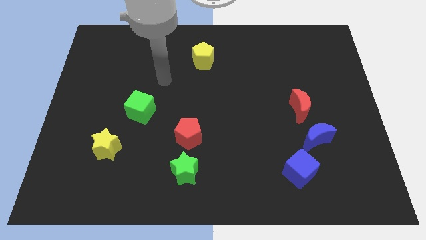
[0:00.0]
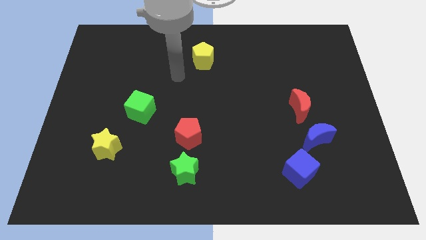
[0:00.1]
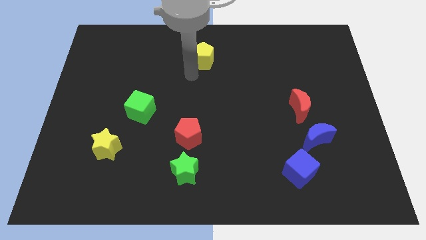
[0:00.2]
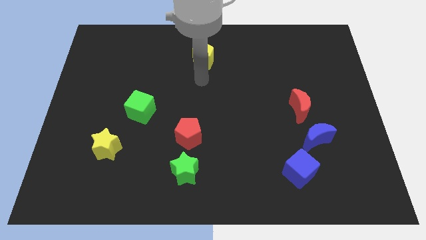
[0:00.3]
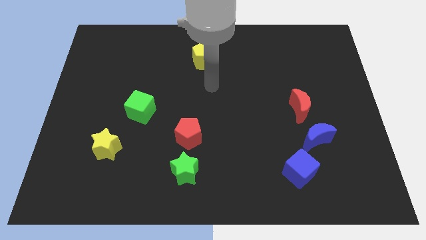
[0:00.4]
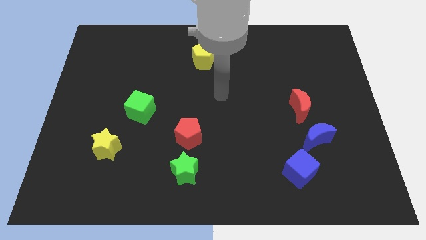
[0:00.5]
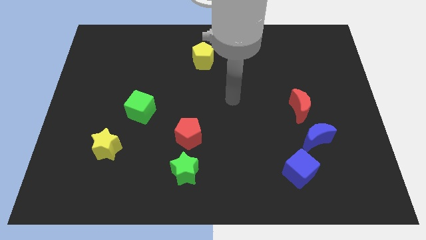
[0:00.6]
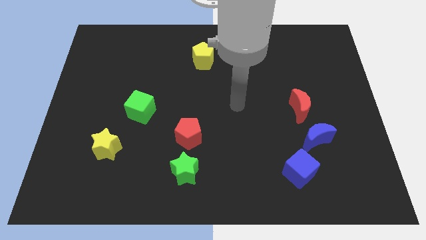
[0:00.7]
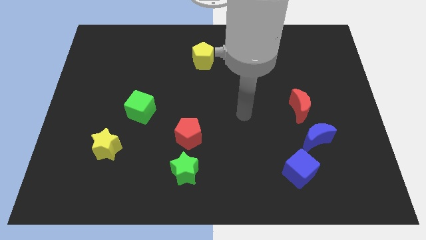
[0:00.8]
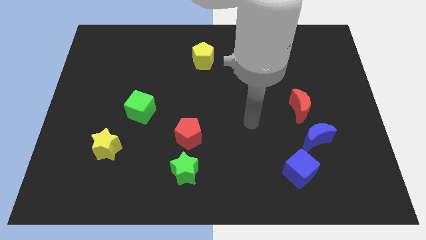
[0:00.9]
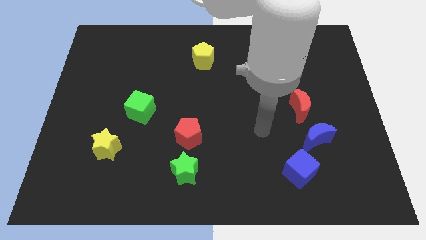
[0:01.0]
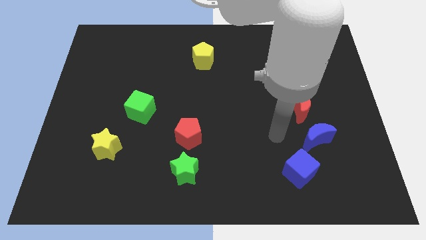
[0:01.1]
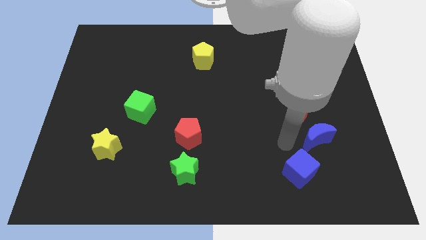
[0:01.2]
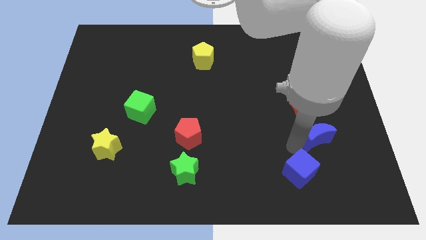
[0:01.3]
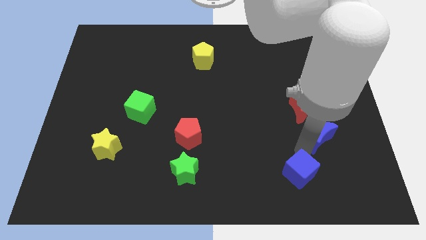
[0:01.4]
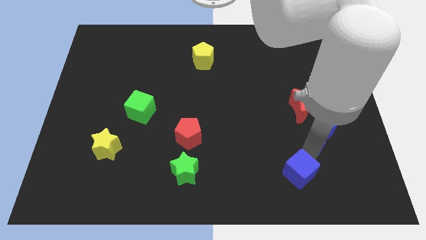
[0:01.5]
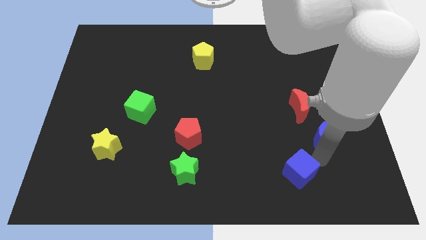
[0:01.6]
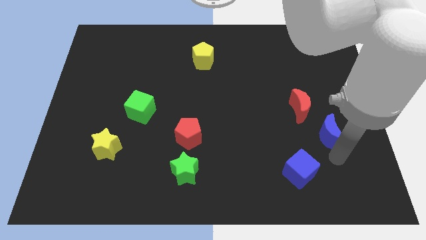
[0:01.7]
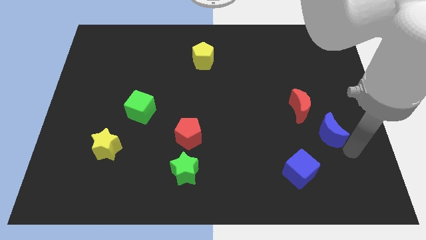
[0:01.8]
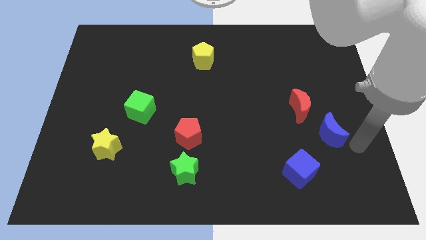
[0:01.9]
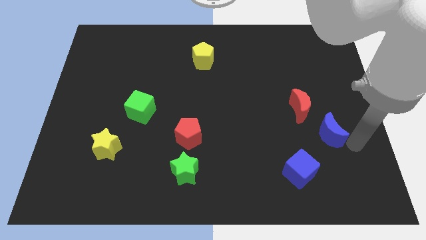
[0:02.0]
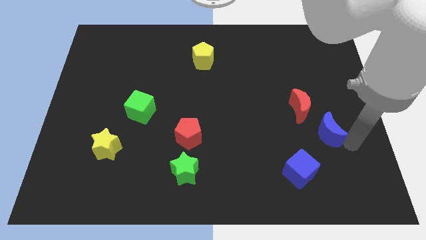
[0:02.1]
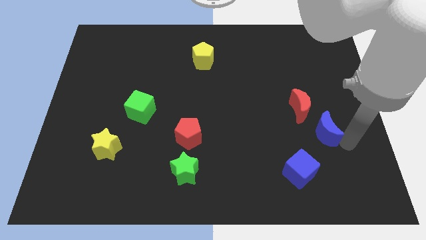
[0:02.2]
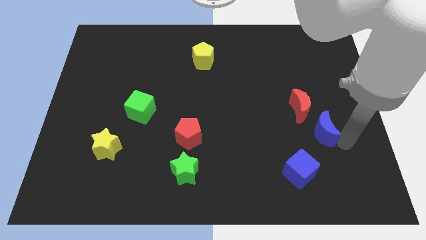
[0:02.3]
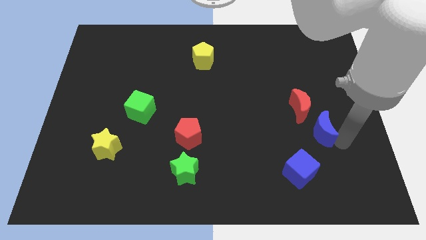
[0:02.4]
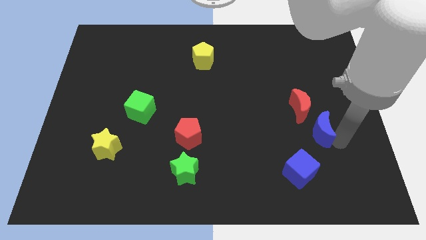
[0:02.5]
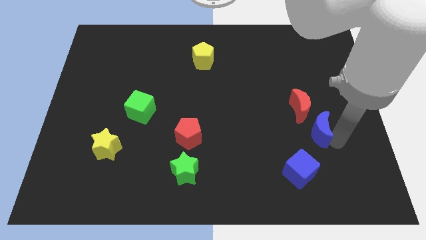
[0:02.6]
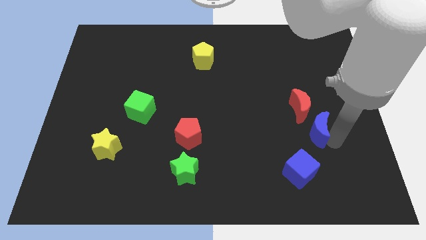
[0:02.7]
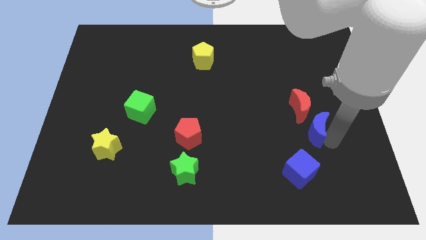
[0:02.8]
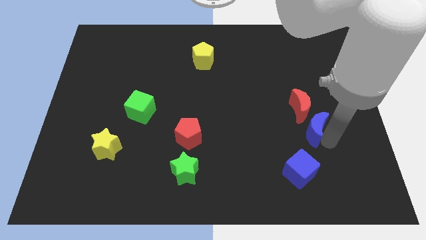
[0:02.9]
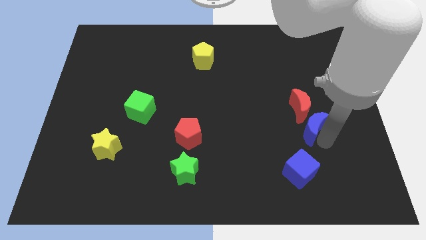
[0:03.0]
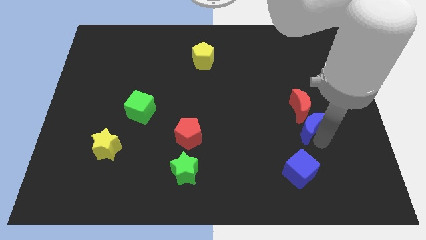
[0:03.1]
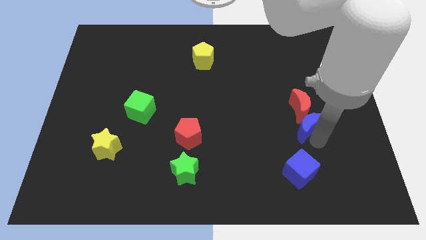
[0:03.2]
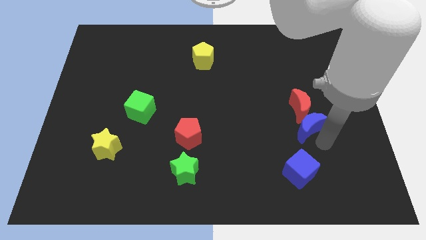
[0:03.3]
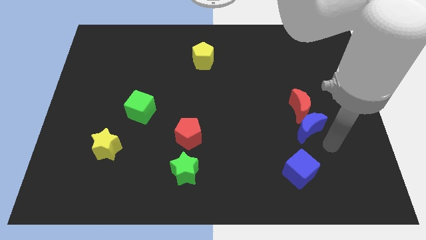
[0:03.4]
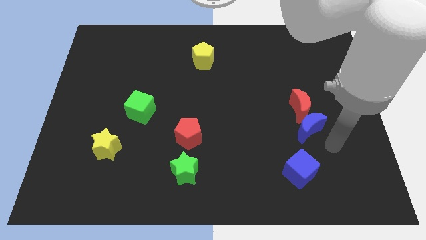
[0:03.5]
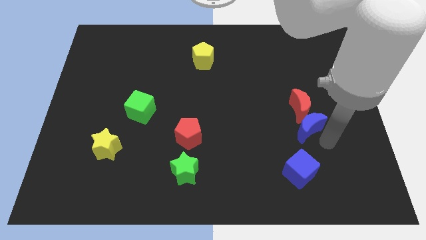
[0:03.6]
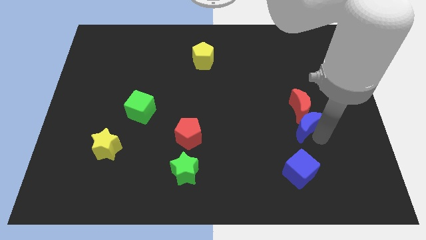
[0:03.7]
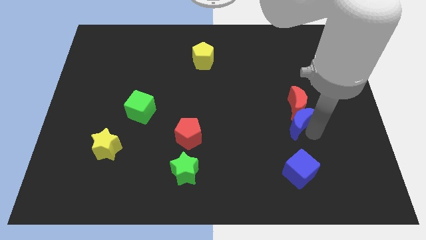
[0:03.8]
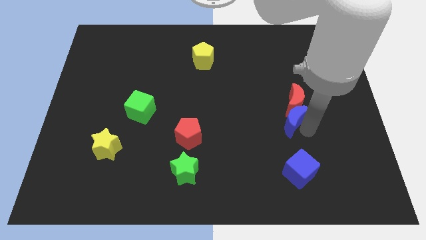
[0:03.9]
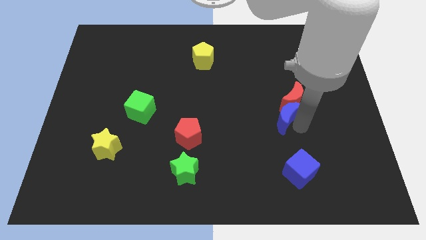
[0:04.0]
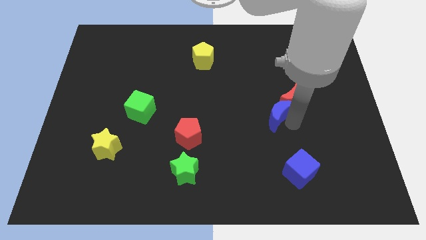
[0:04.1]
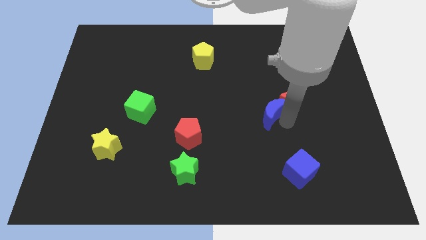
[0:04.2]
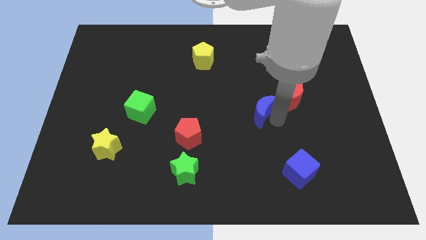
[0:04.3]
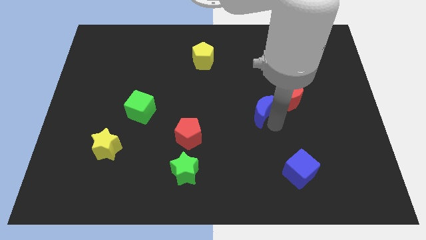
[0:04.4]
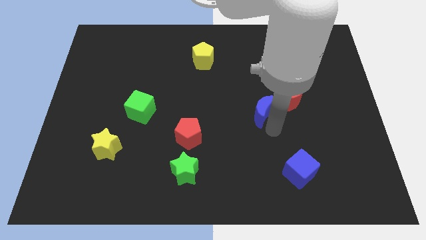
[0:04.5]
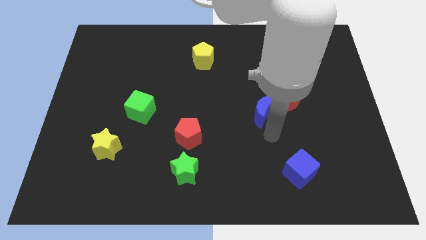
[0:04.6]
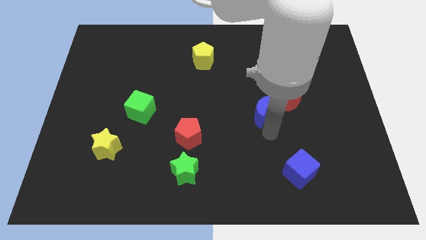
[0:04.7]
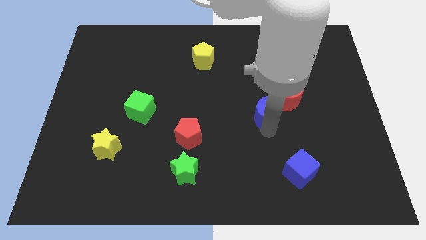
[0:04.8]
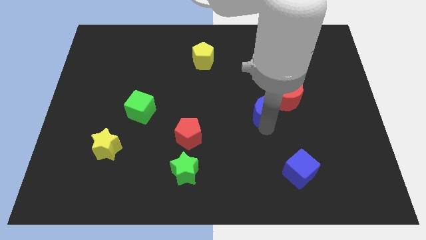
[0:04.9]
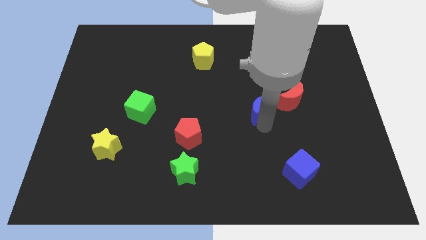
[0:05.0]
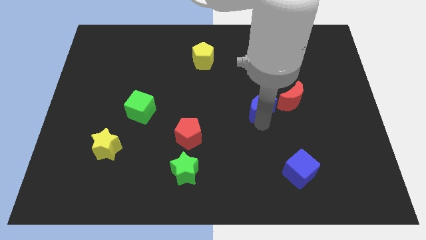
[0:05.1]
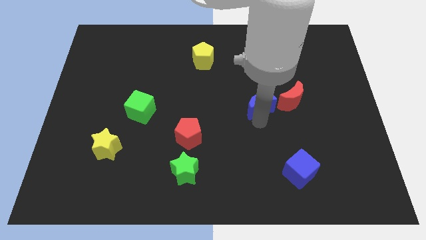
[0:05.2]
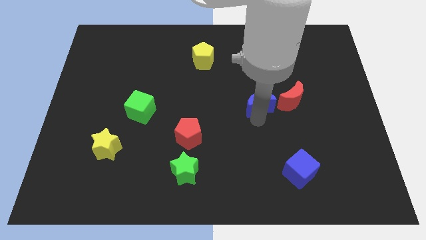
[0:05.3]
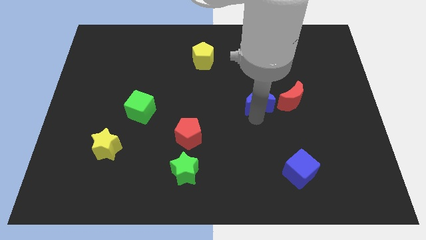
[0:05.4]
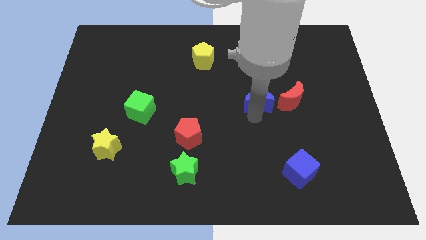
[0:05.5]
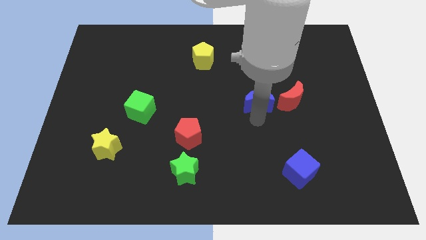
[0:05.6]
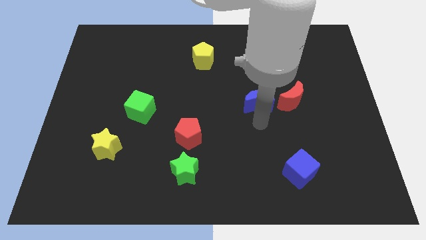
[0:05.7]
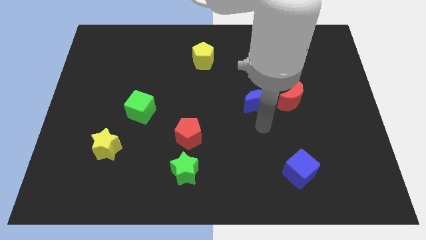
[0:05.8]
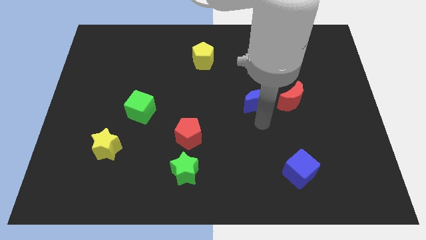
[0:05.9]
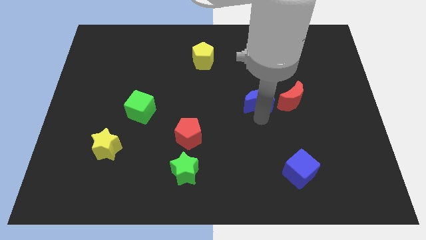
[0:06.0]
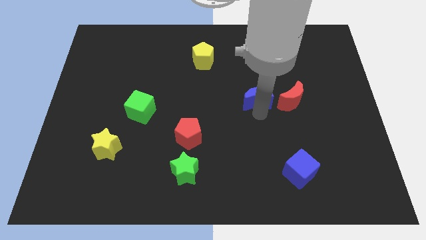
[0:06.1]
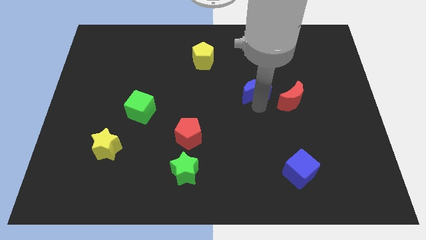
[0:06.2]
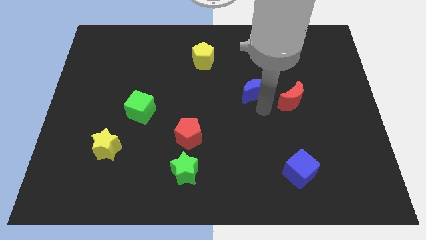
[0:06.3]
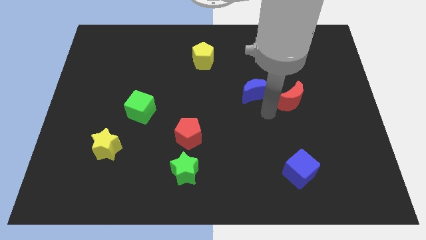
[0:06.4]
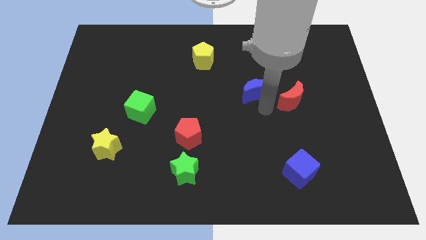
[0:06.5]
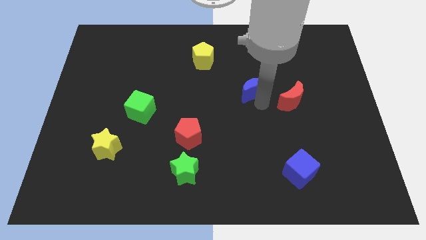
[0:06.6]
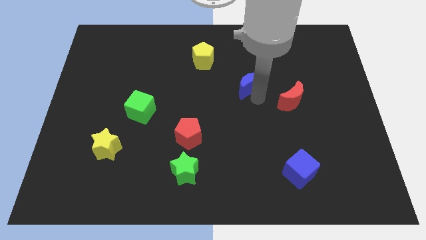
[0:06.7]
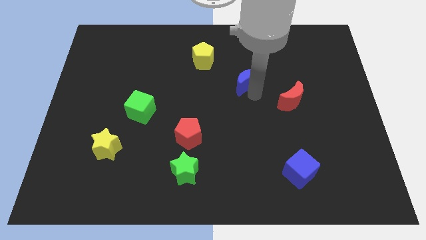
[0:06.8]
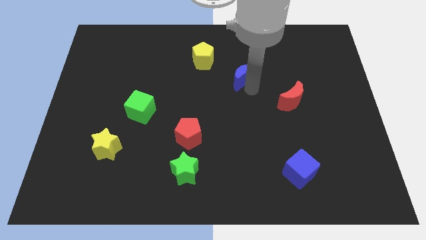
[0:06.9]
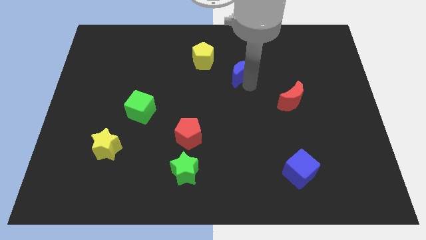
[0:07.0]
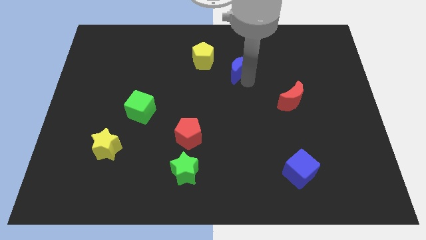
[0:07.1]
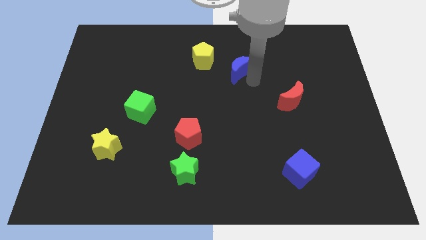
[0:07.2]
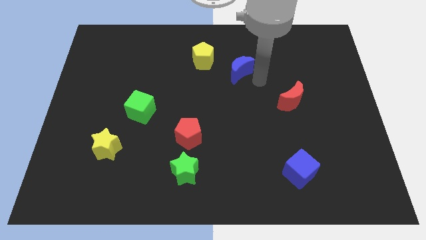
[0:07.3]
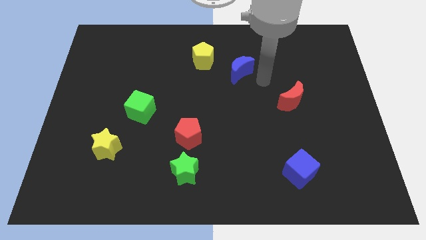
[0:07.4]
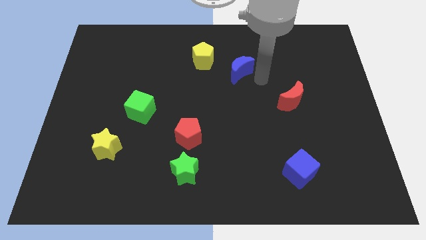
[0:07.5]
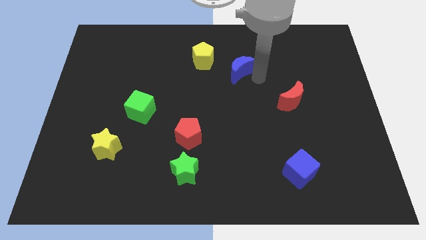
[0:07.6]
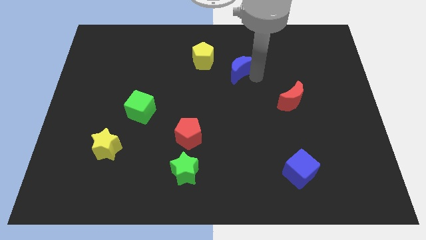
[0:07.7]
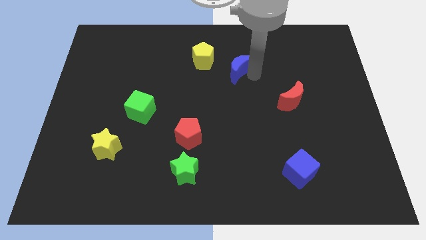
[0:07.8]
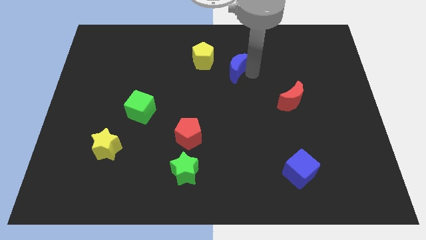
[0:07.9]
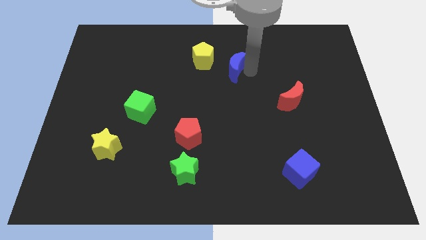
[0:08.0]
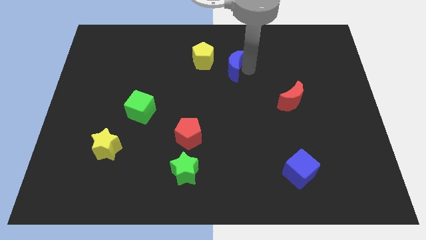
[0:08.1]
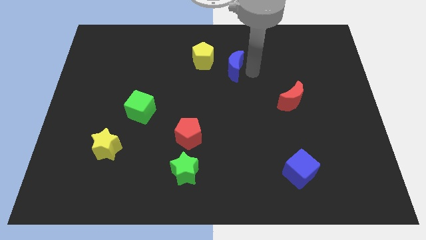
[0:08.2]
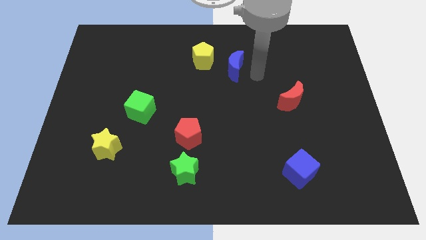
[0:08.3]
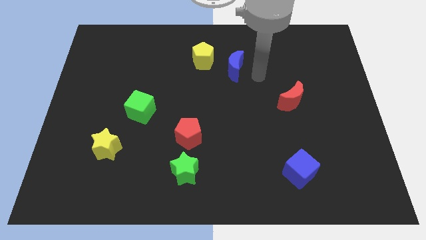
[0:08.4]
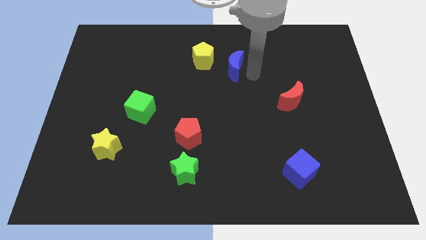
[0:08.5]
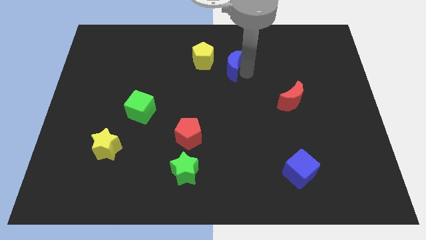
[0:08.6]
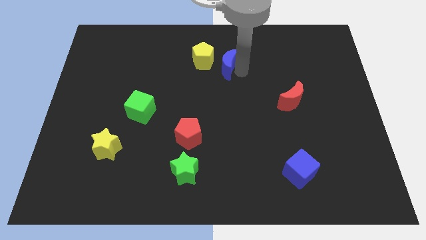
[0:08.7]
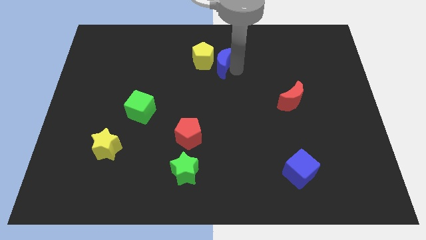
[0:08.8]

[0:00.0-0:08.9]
move the blue moon towards the yellow pentagon
